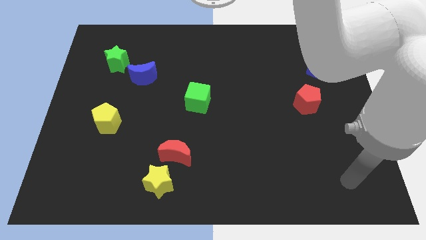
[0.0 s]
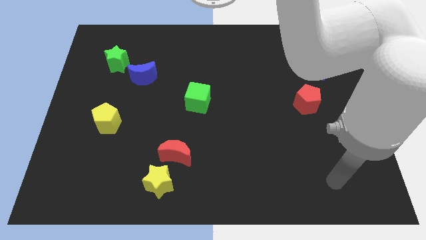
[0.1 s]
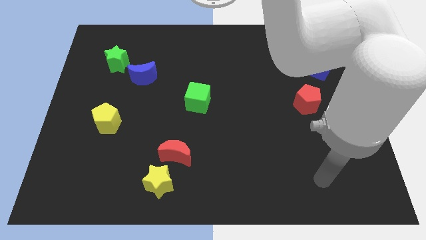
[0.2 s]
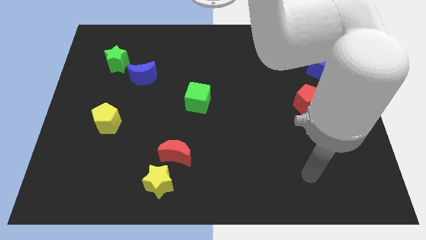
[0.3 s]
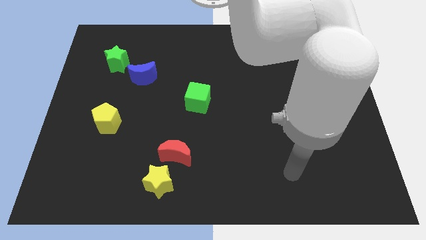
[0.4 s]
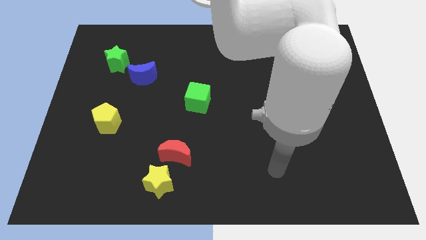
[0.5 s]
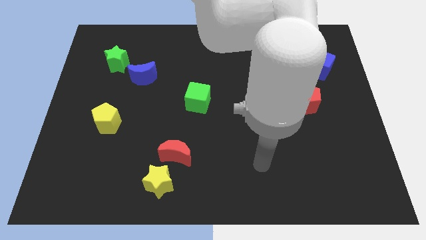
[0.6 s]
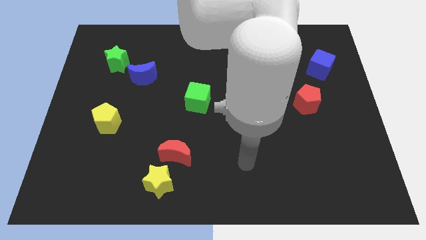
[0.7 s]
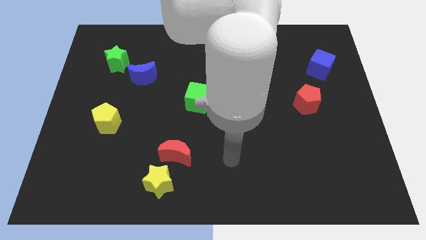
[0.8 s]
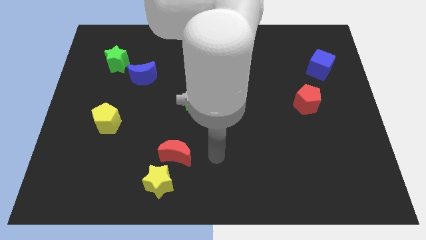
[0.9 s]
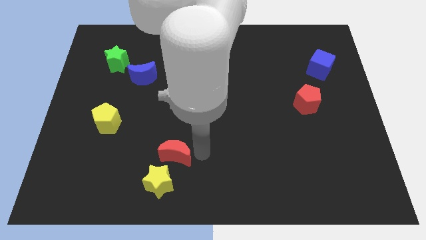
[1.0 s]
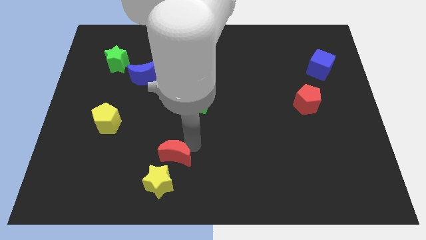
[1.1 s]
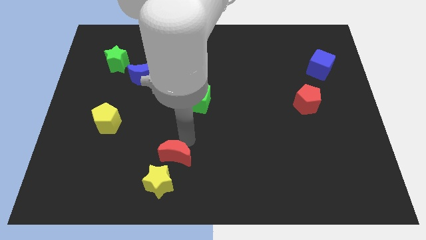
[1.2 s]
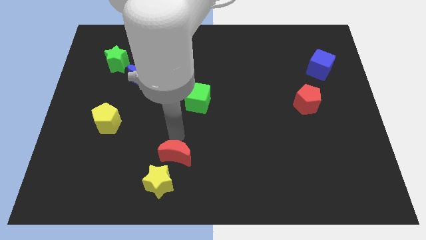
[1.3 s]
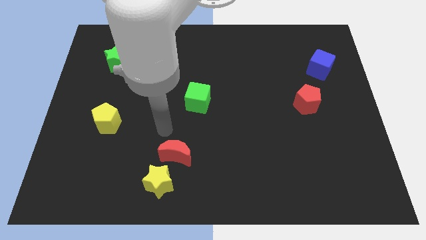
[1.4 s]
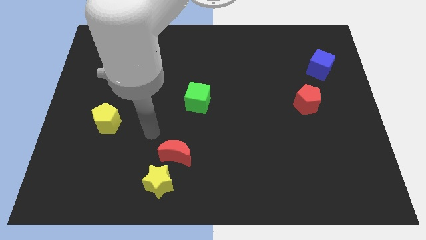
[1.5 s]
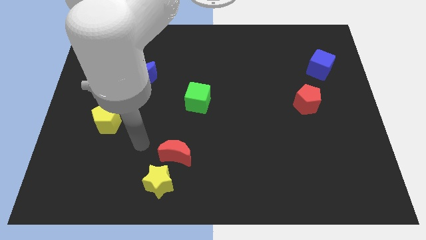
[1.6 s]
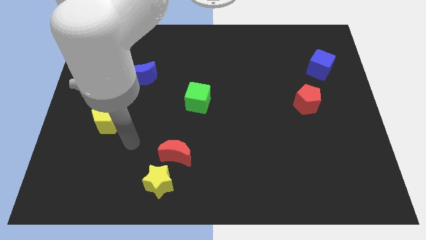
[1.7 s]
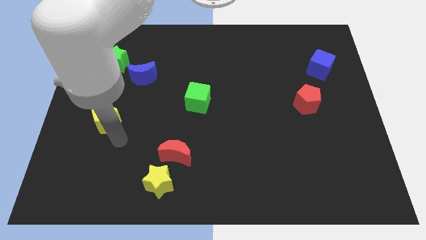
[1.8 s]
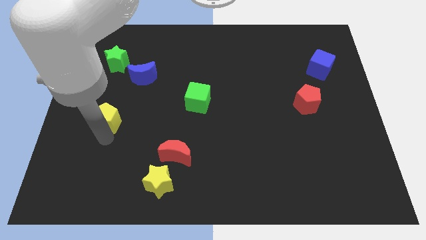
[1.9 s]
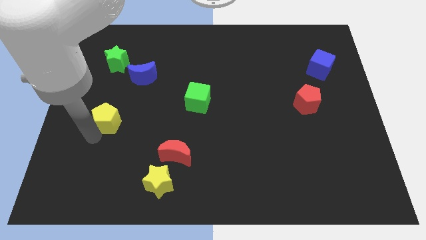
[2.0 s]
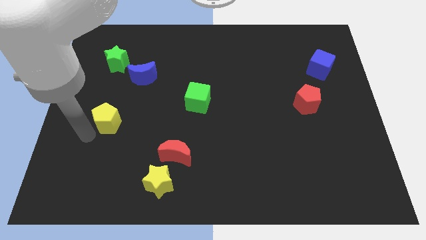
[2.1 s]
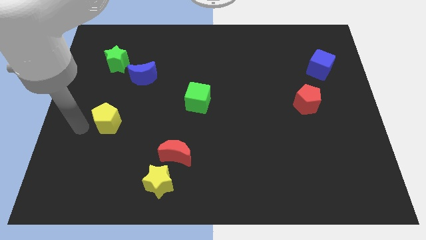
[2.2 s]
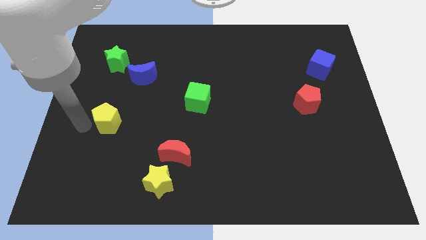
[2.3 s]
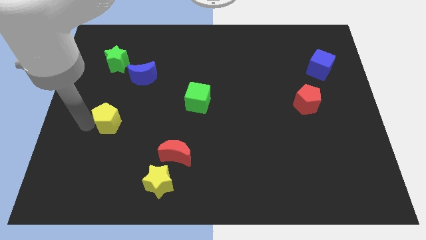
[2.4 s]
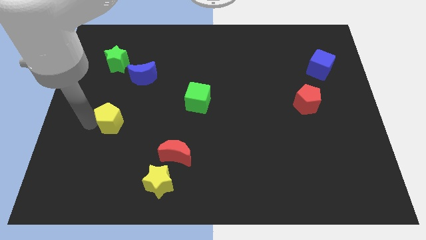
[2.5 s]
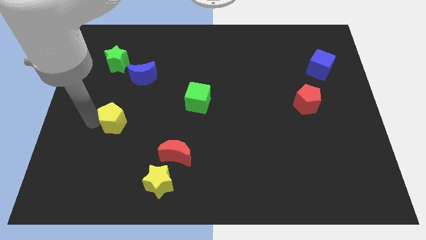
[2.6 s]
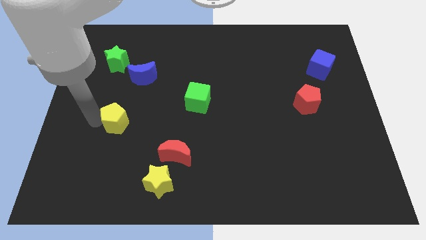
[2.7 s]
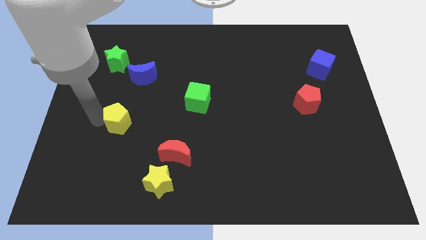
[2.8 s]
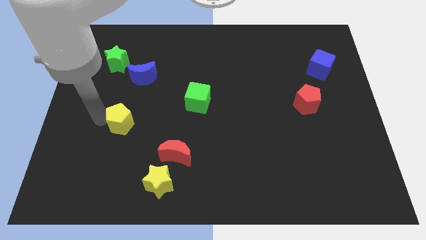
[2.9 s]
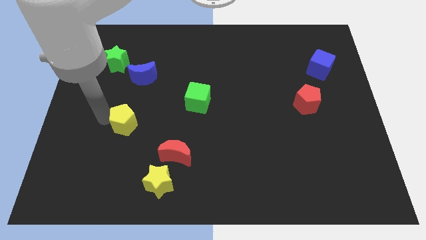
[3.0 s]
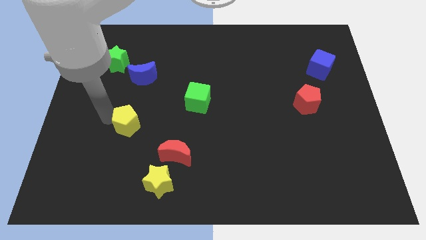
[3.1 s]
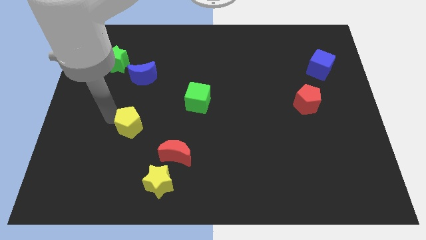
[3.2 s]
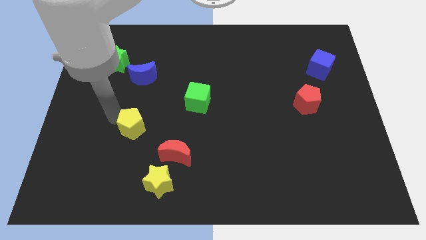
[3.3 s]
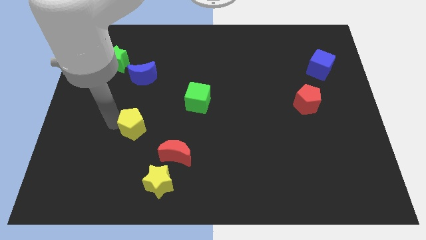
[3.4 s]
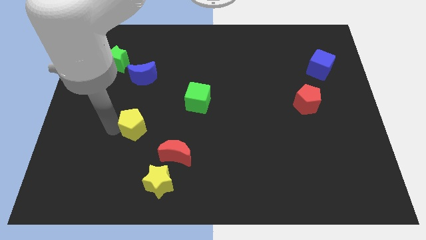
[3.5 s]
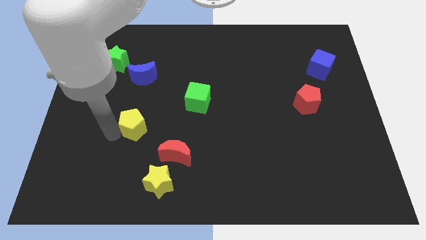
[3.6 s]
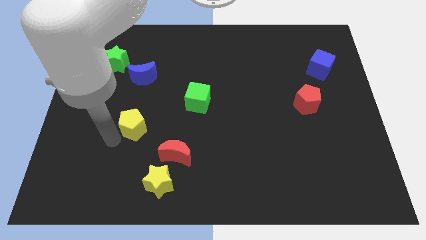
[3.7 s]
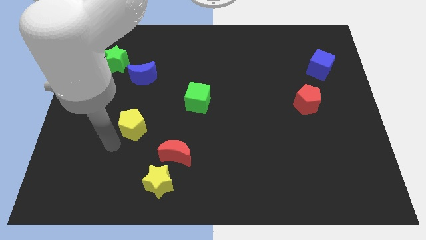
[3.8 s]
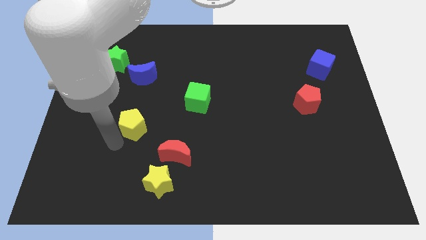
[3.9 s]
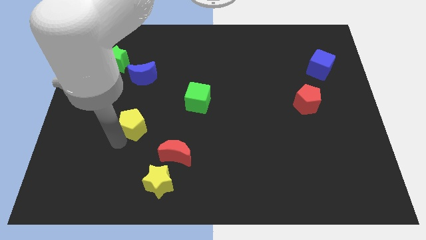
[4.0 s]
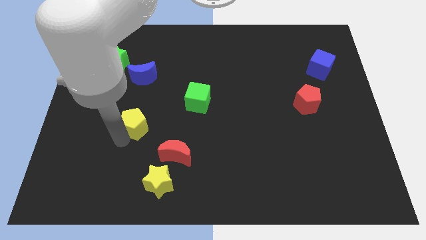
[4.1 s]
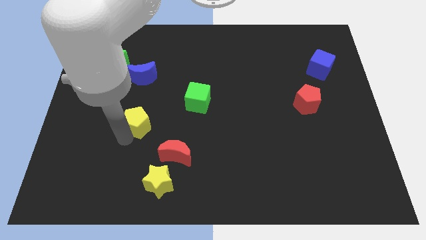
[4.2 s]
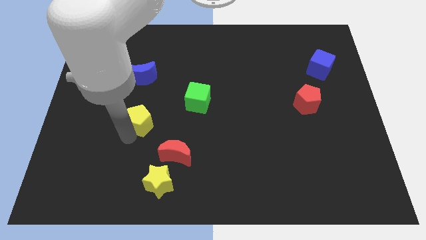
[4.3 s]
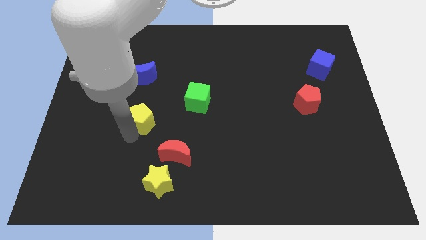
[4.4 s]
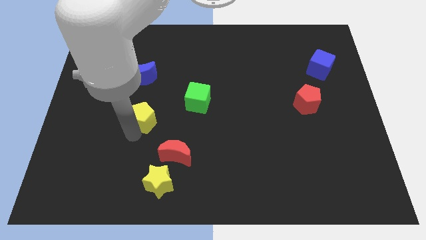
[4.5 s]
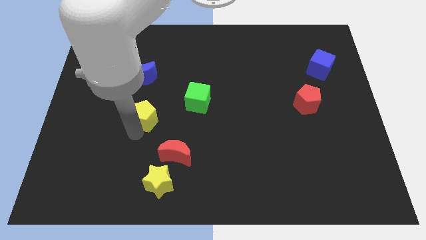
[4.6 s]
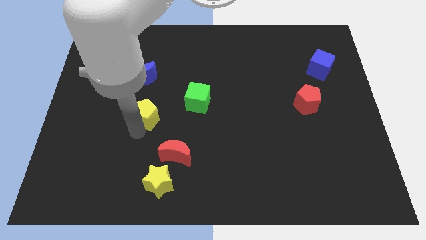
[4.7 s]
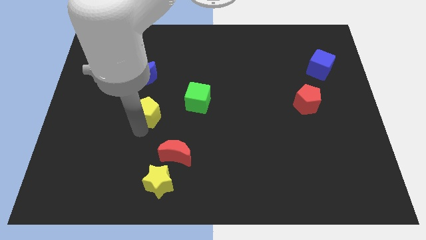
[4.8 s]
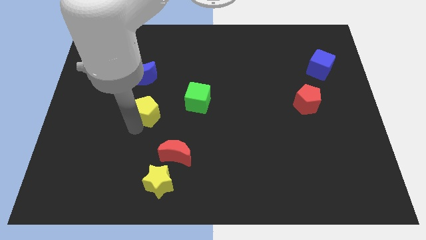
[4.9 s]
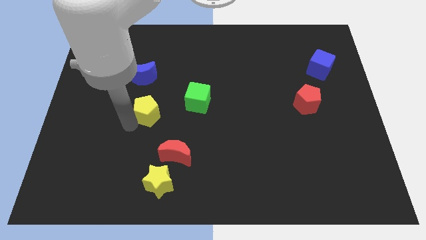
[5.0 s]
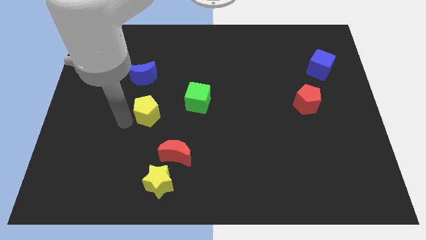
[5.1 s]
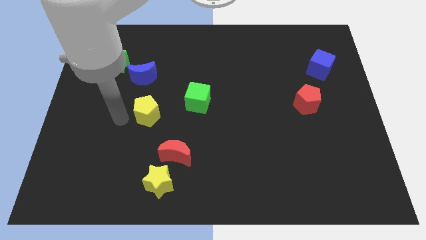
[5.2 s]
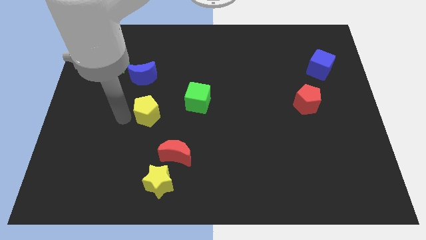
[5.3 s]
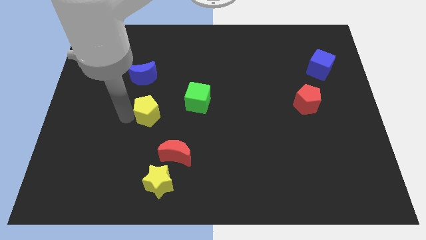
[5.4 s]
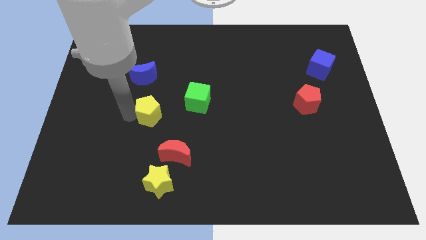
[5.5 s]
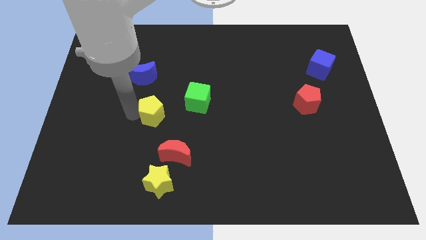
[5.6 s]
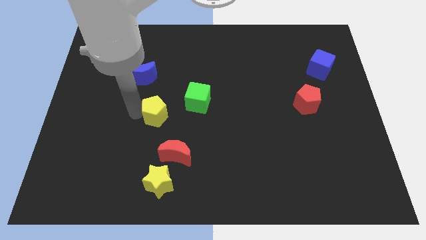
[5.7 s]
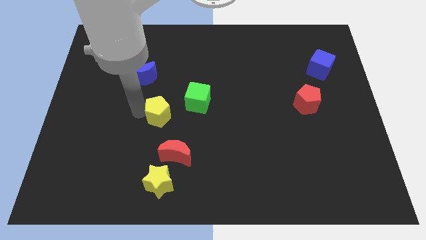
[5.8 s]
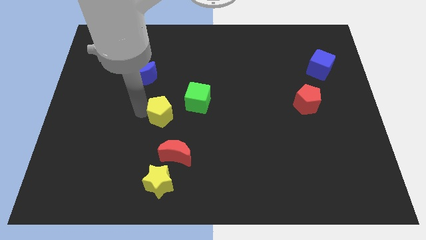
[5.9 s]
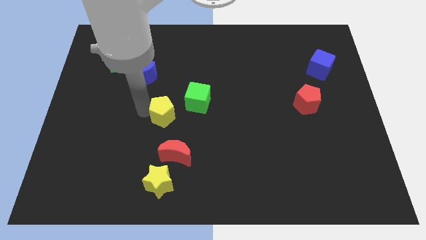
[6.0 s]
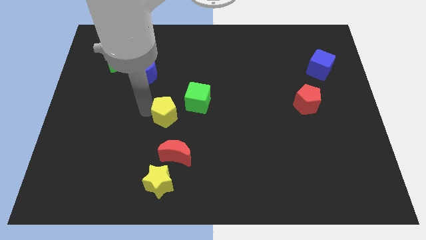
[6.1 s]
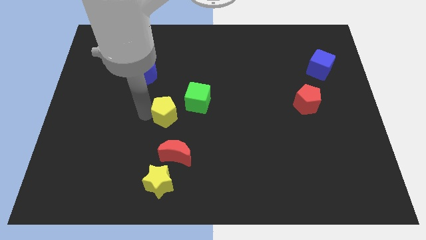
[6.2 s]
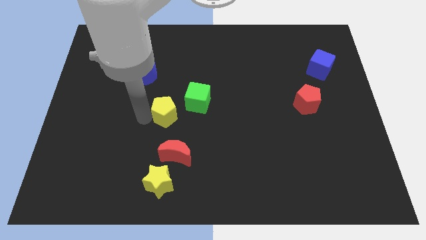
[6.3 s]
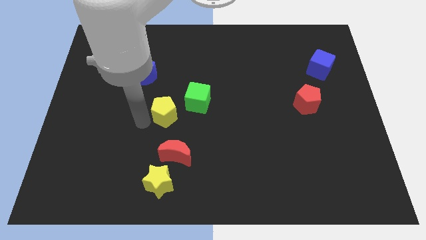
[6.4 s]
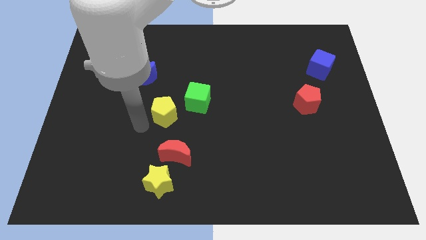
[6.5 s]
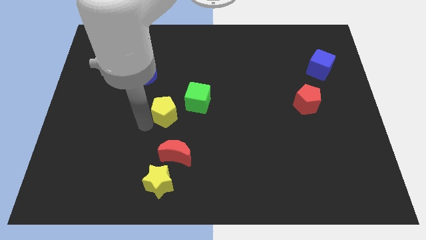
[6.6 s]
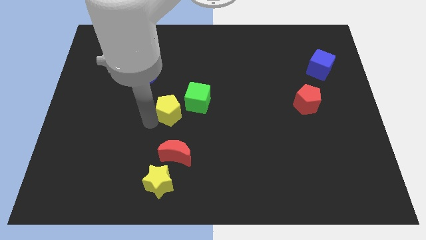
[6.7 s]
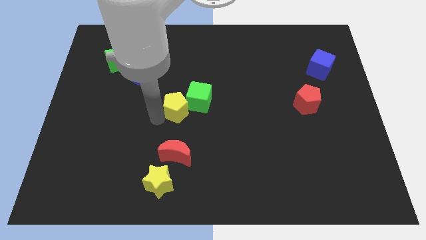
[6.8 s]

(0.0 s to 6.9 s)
put the yellow pentagon close to the green cube
